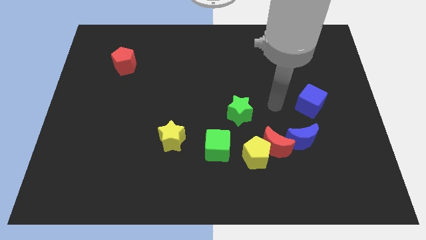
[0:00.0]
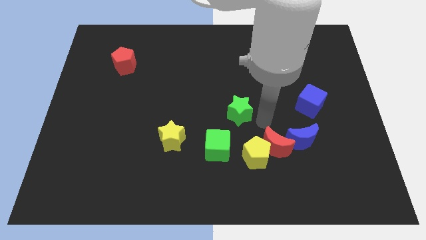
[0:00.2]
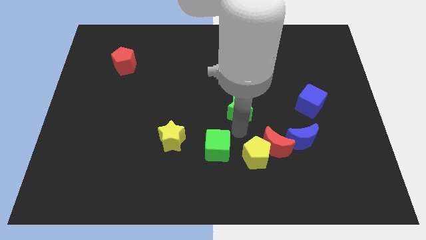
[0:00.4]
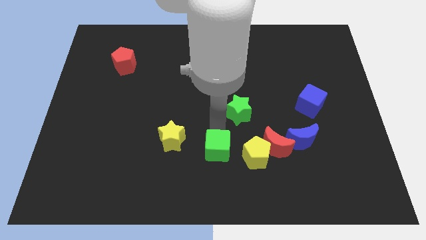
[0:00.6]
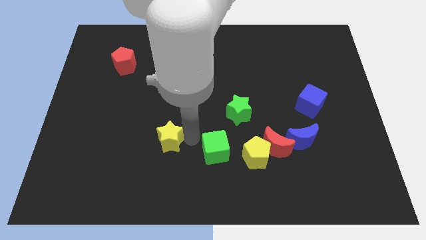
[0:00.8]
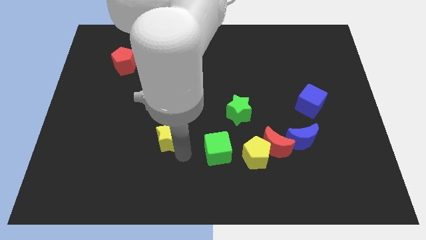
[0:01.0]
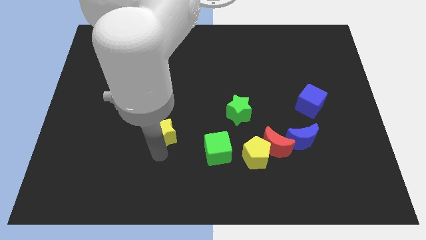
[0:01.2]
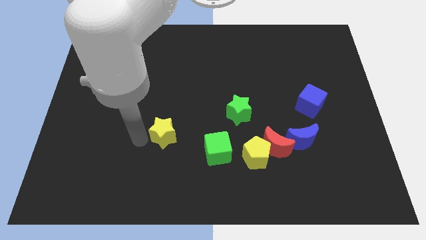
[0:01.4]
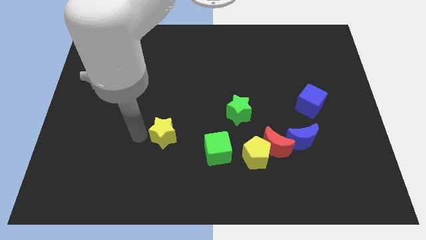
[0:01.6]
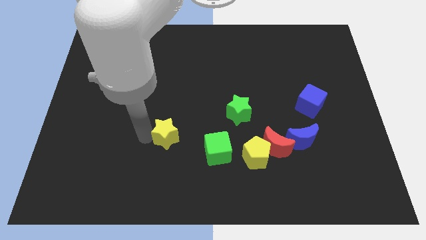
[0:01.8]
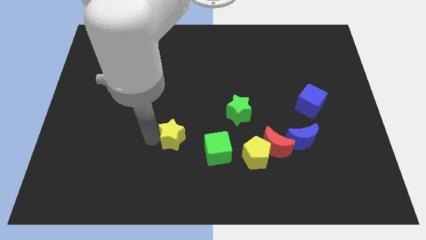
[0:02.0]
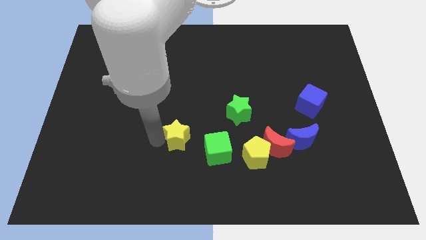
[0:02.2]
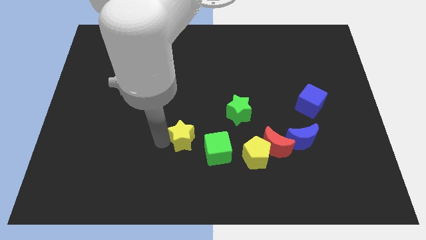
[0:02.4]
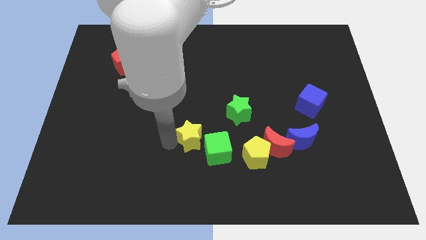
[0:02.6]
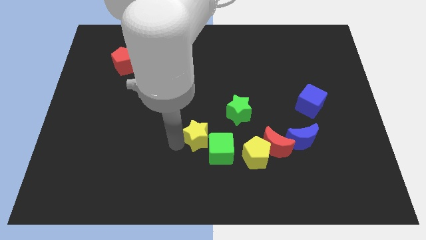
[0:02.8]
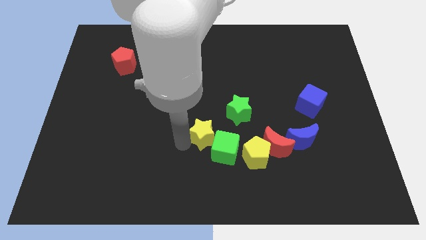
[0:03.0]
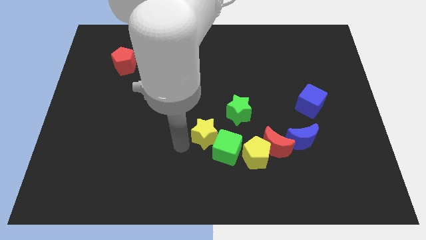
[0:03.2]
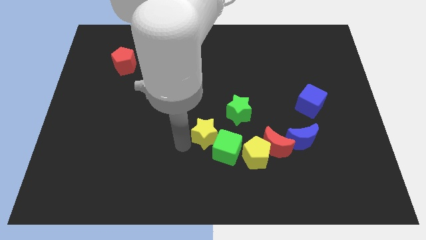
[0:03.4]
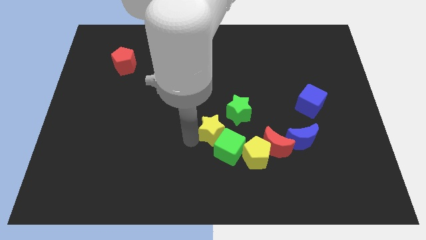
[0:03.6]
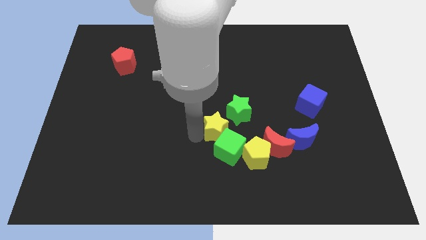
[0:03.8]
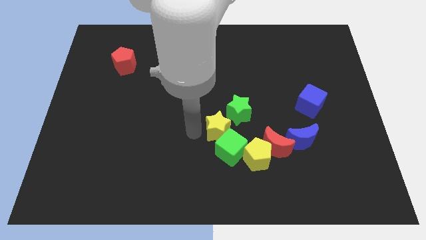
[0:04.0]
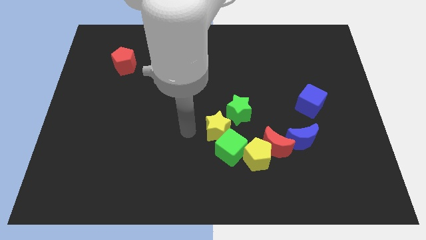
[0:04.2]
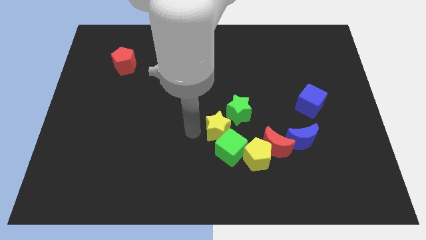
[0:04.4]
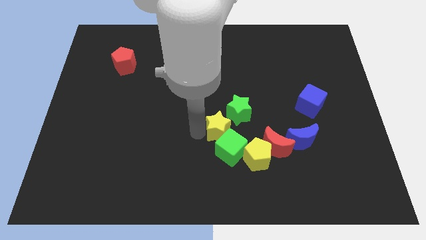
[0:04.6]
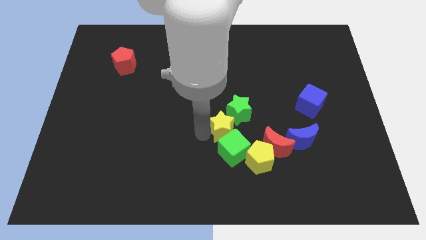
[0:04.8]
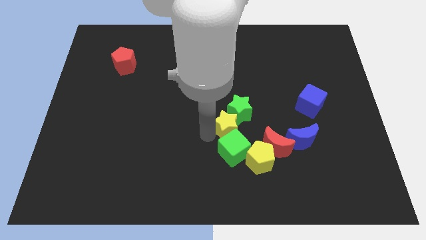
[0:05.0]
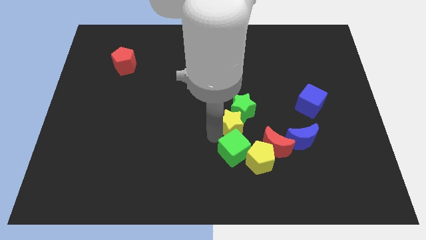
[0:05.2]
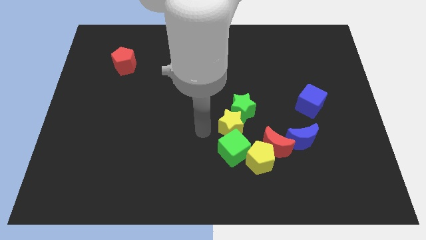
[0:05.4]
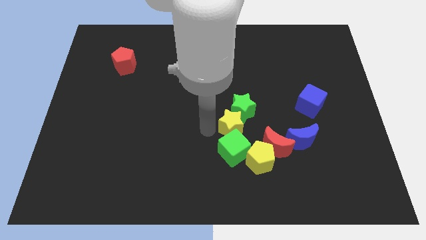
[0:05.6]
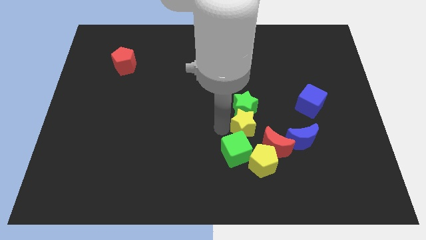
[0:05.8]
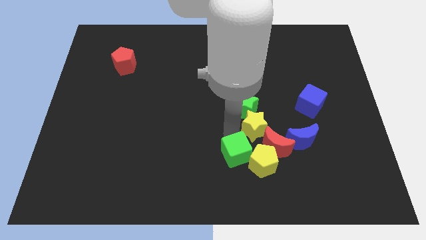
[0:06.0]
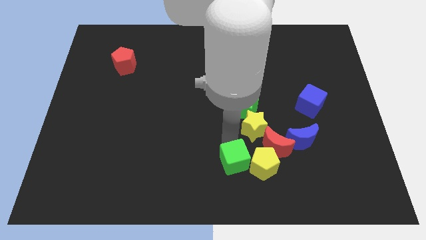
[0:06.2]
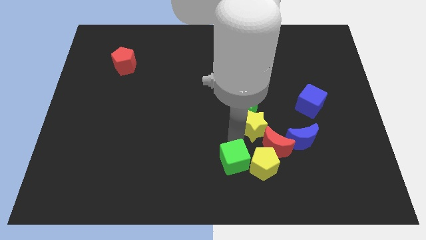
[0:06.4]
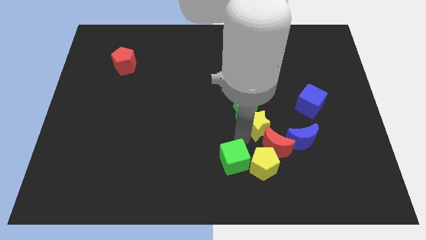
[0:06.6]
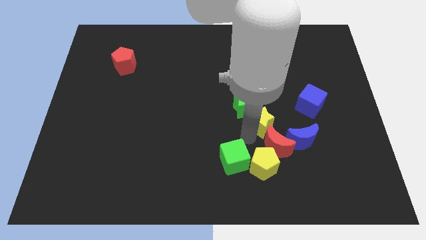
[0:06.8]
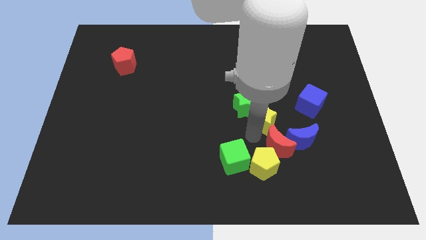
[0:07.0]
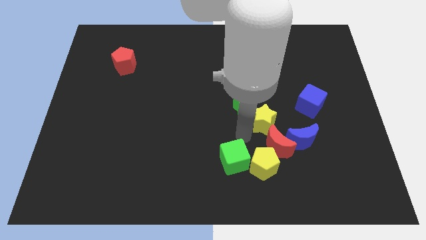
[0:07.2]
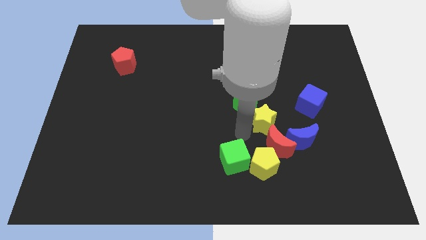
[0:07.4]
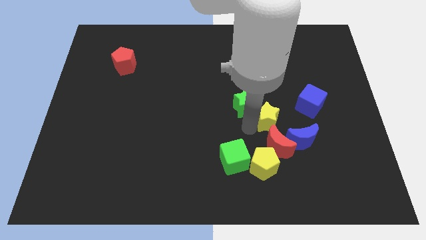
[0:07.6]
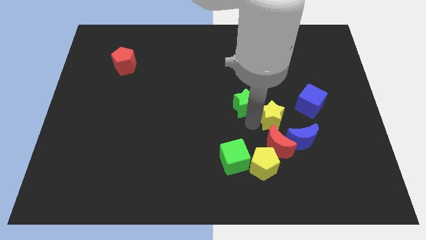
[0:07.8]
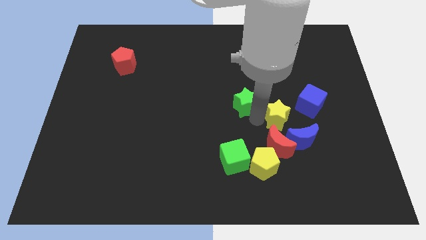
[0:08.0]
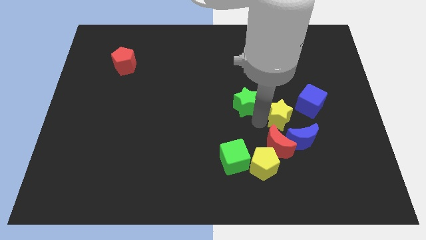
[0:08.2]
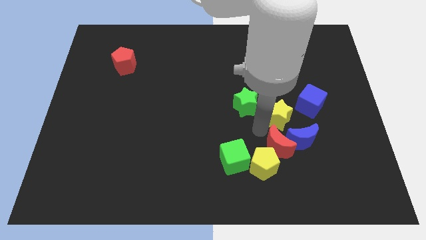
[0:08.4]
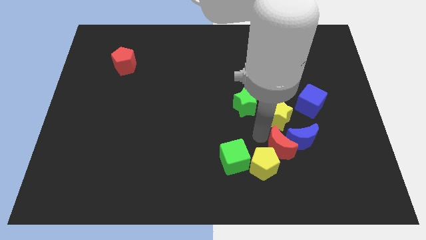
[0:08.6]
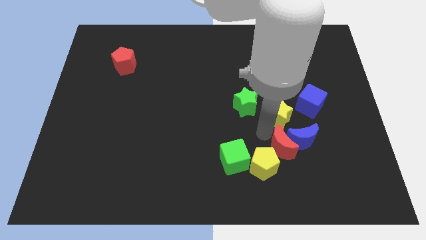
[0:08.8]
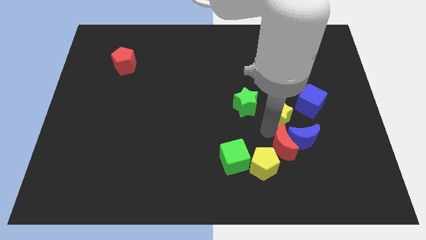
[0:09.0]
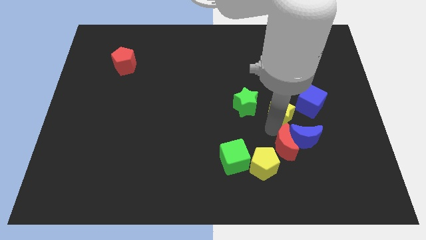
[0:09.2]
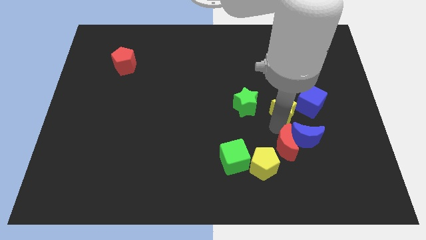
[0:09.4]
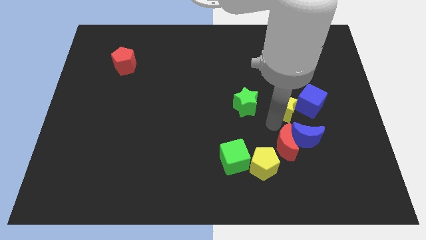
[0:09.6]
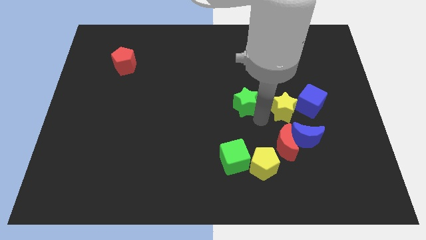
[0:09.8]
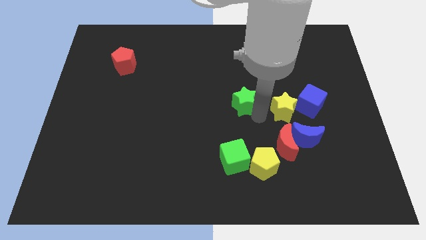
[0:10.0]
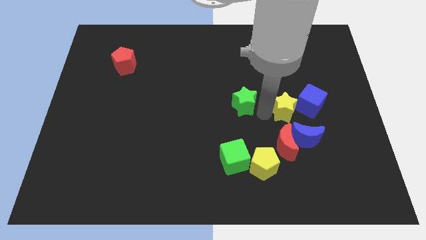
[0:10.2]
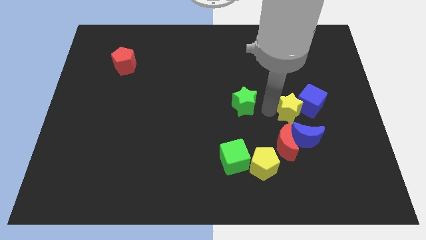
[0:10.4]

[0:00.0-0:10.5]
slide the yellow star towards the blue cube

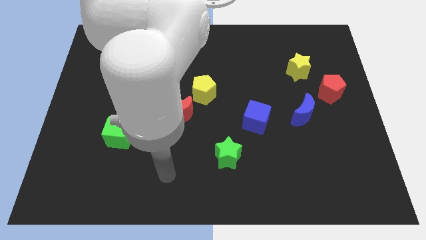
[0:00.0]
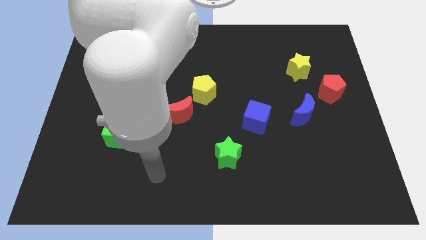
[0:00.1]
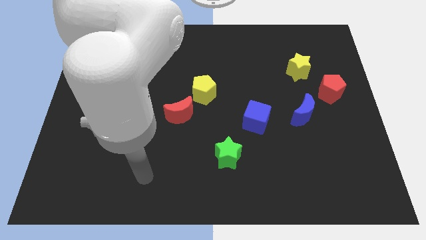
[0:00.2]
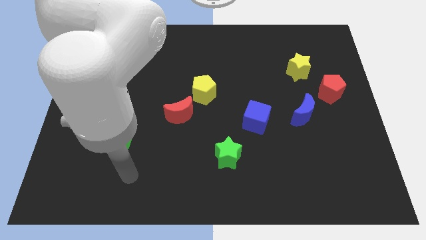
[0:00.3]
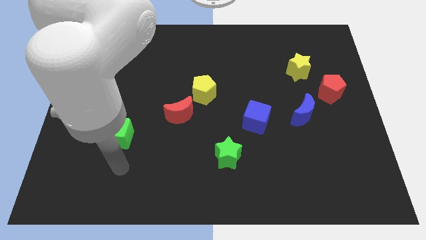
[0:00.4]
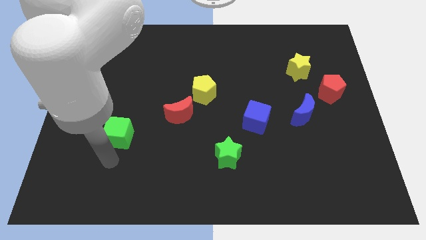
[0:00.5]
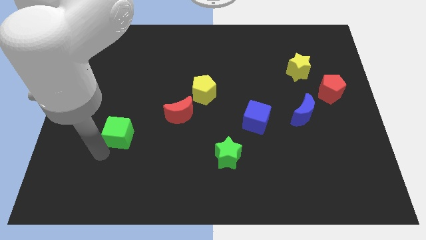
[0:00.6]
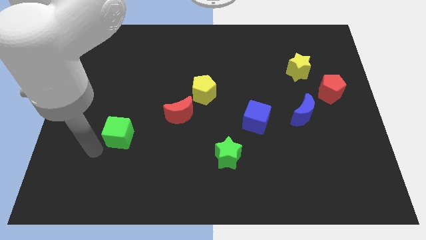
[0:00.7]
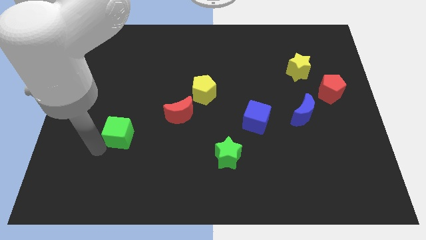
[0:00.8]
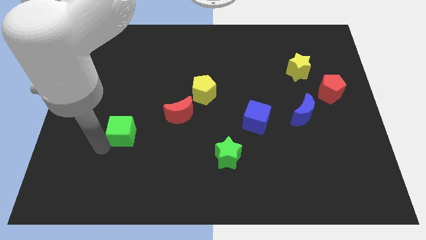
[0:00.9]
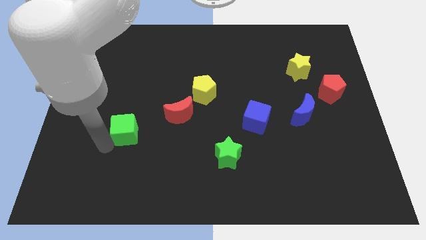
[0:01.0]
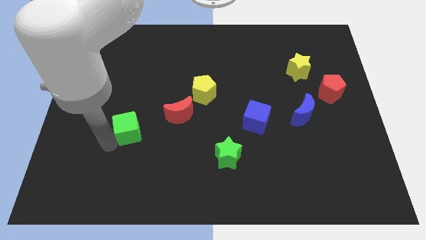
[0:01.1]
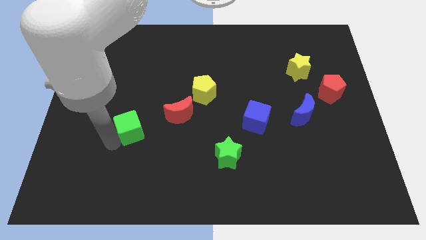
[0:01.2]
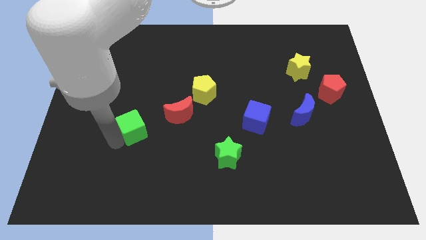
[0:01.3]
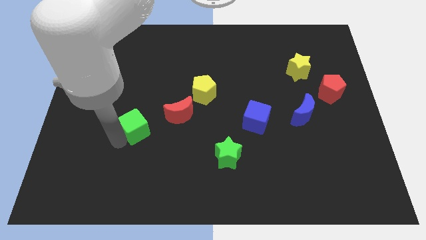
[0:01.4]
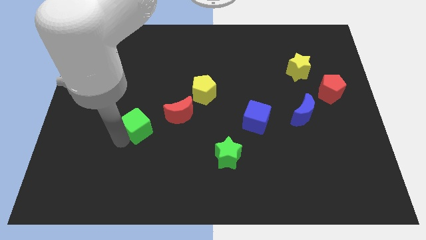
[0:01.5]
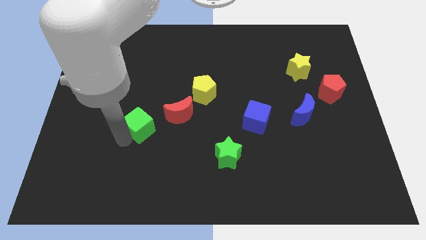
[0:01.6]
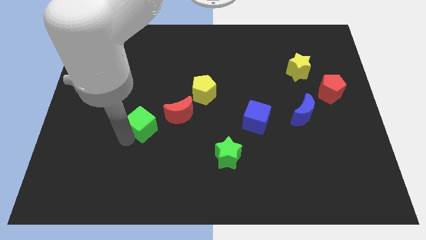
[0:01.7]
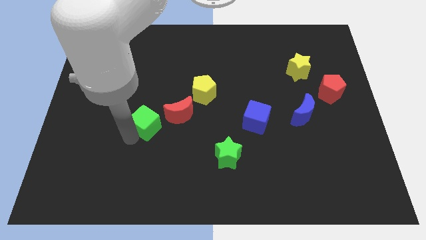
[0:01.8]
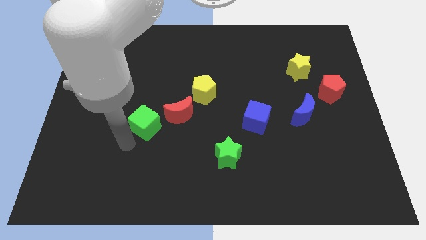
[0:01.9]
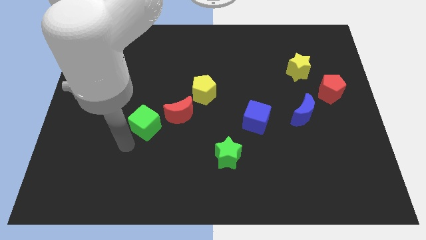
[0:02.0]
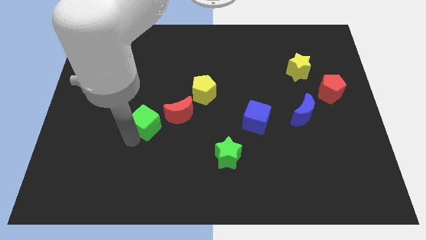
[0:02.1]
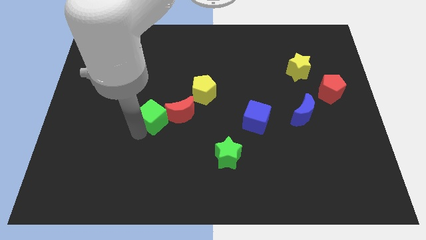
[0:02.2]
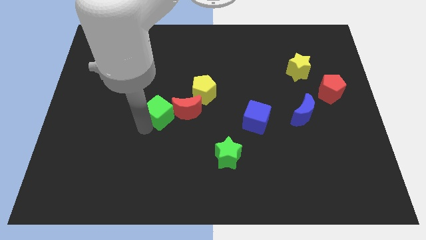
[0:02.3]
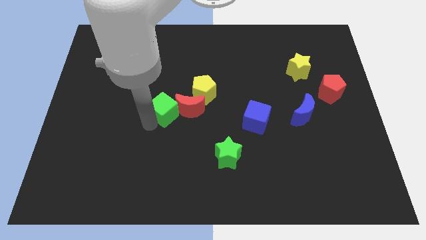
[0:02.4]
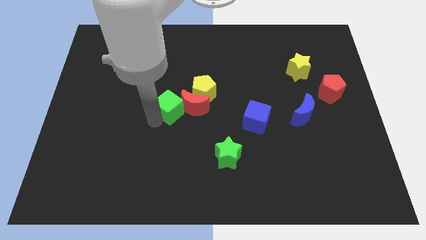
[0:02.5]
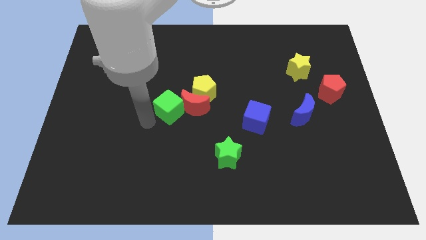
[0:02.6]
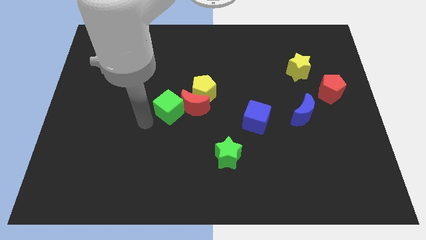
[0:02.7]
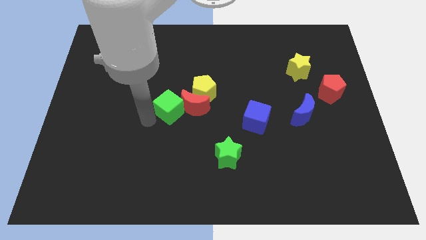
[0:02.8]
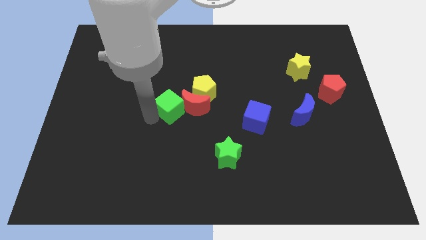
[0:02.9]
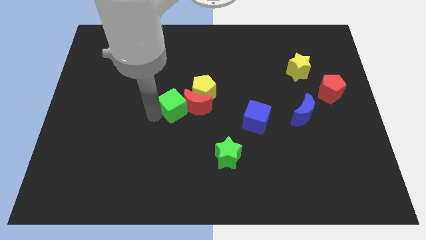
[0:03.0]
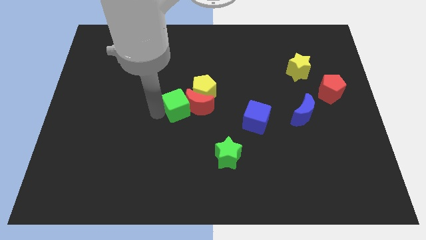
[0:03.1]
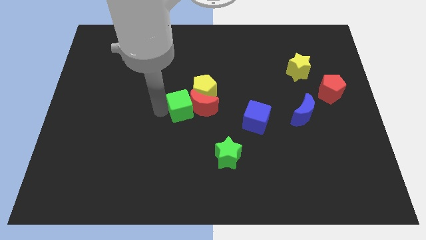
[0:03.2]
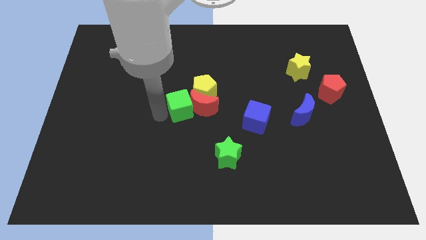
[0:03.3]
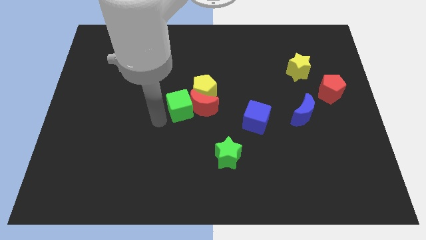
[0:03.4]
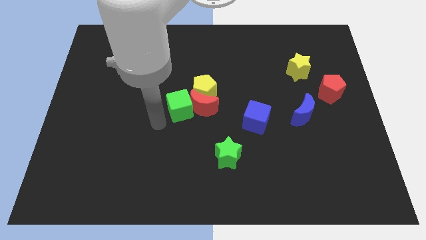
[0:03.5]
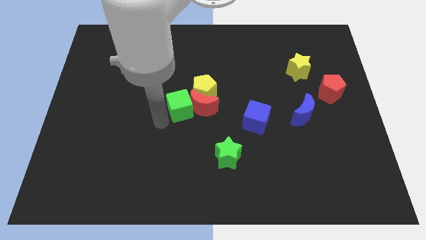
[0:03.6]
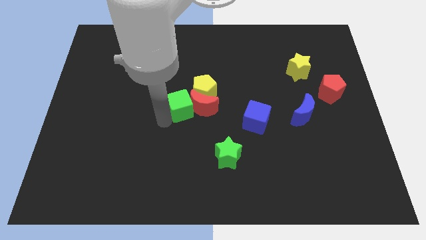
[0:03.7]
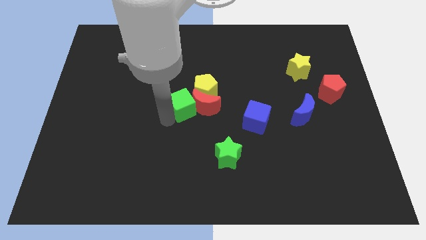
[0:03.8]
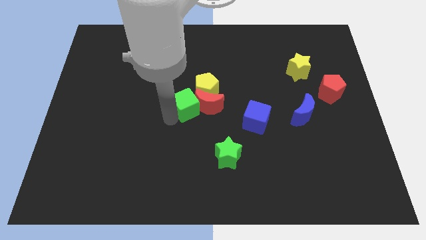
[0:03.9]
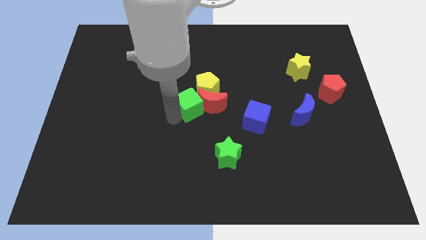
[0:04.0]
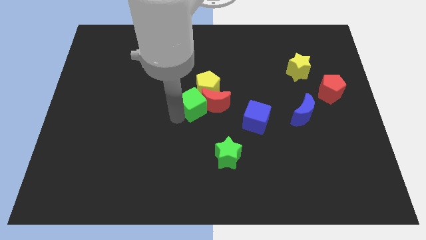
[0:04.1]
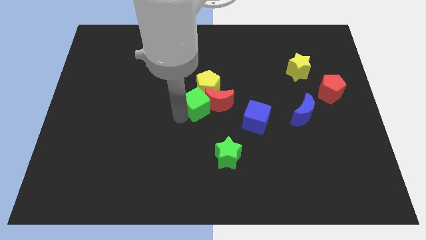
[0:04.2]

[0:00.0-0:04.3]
slide the green cube towards the yellow pentagon
